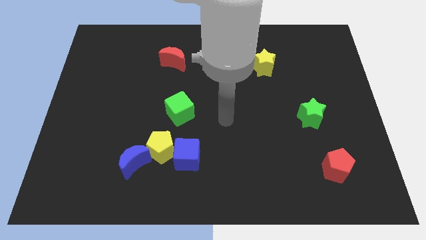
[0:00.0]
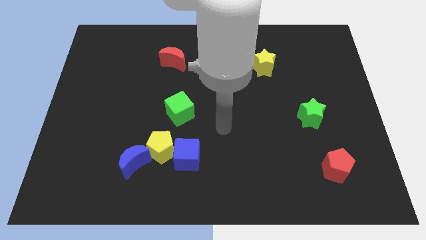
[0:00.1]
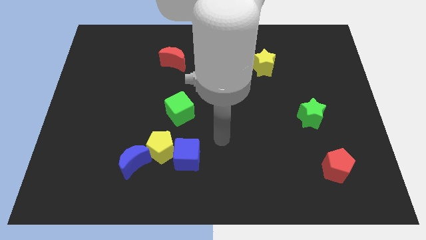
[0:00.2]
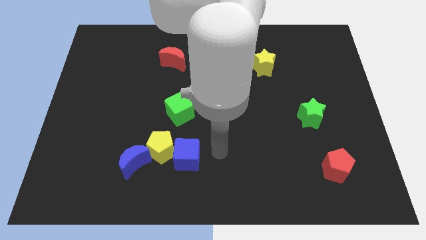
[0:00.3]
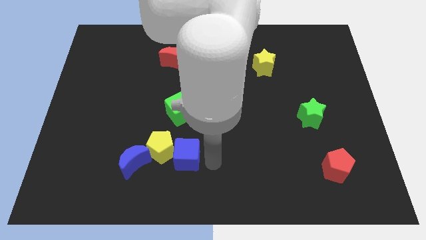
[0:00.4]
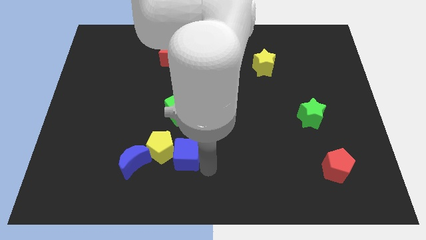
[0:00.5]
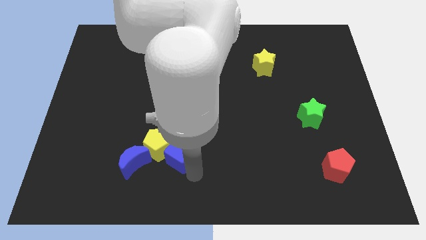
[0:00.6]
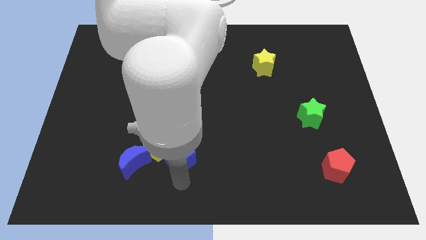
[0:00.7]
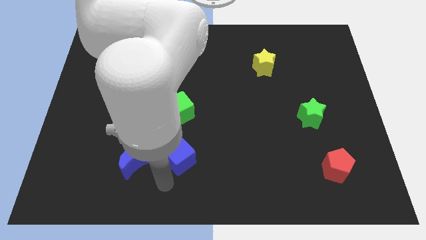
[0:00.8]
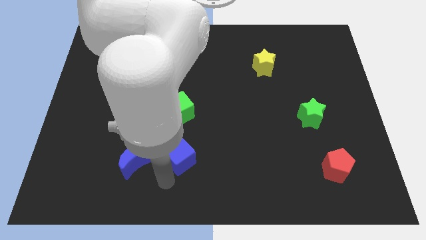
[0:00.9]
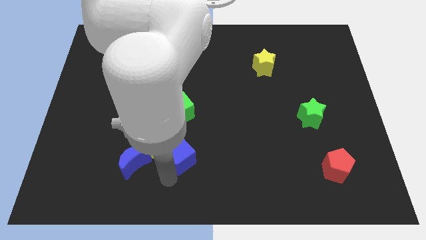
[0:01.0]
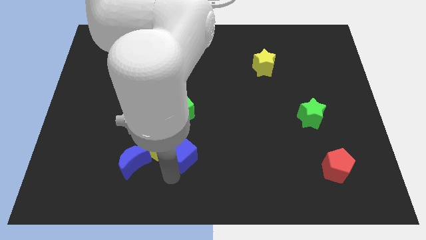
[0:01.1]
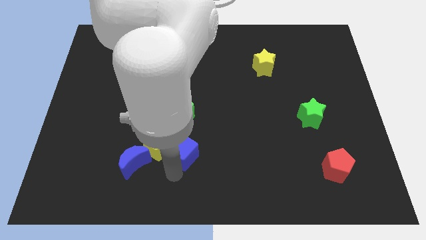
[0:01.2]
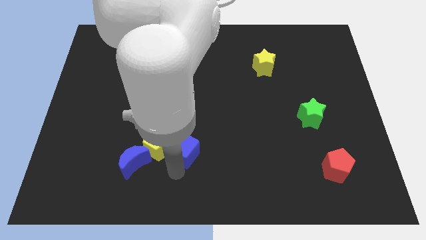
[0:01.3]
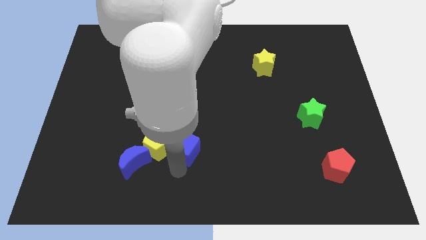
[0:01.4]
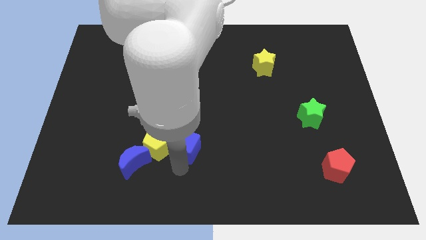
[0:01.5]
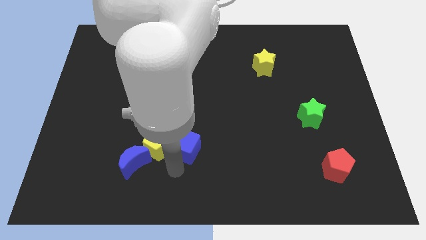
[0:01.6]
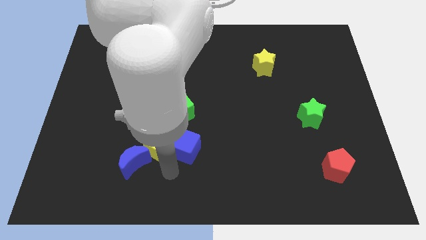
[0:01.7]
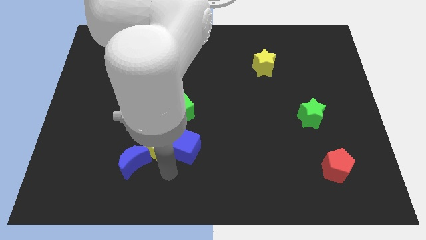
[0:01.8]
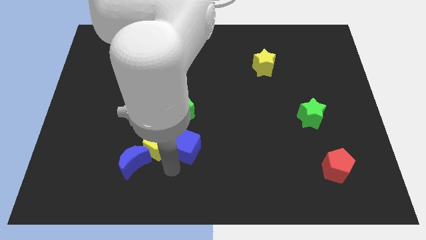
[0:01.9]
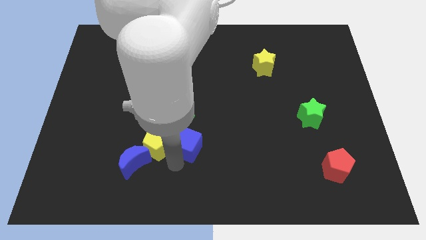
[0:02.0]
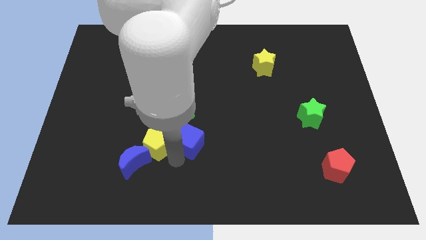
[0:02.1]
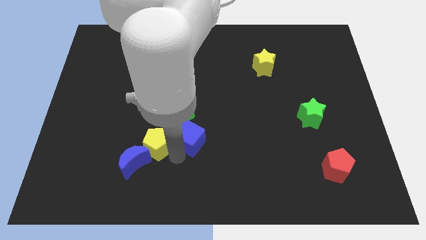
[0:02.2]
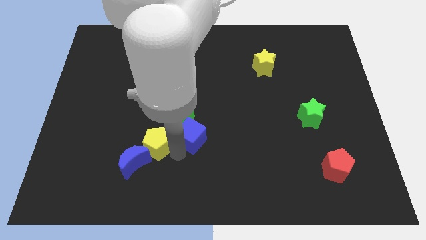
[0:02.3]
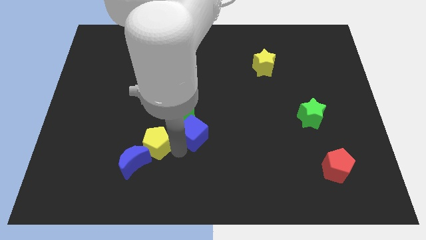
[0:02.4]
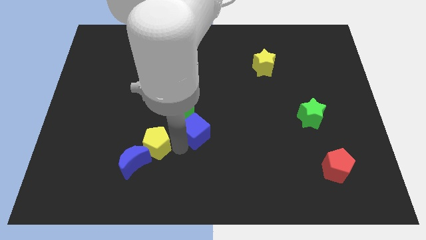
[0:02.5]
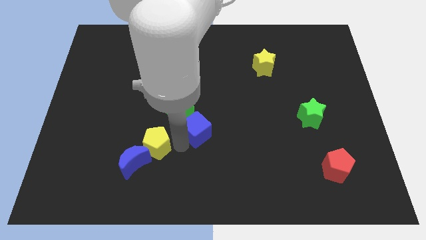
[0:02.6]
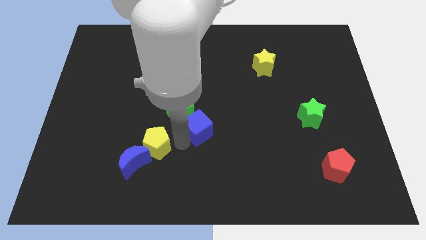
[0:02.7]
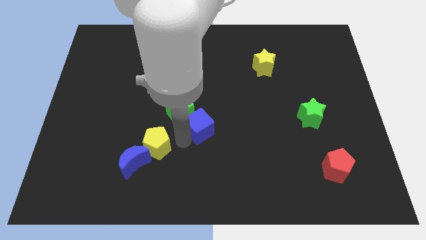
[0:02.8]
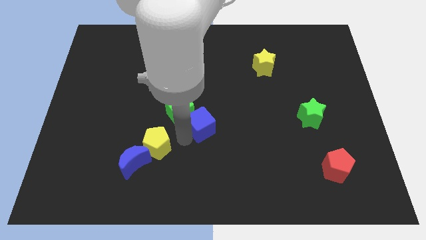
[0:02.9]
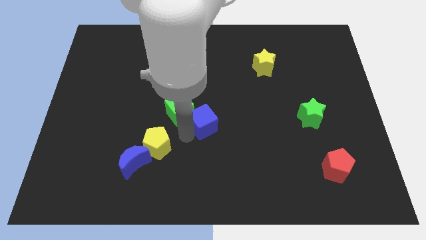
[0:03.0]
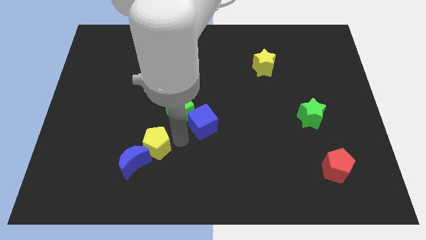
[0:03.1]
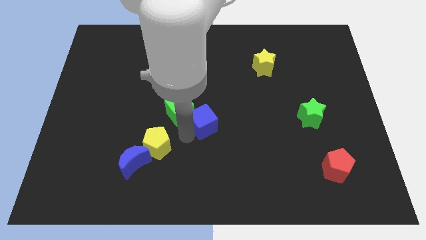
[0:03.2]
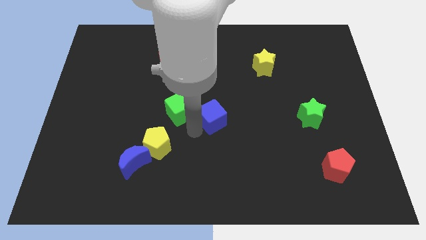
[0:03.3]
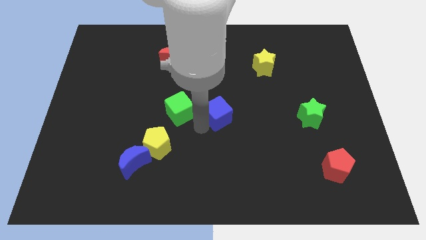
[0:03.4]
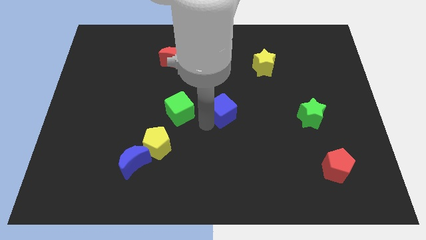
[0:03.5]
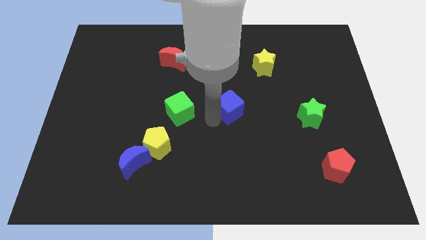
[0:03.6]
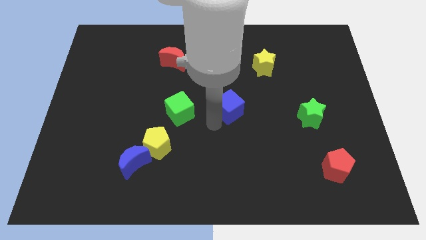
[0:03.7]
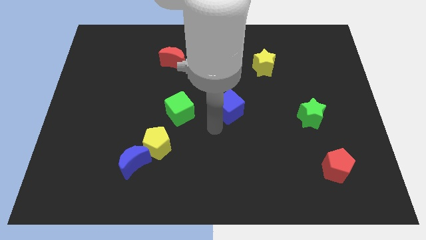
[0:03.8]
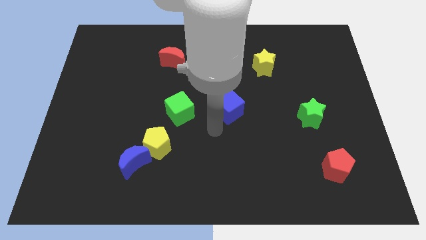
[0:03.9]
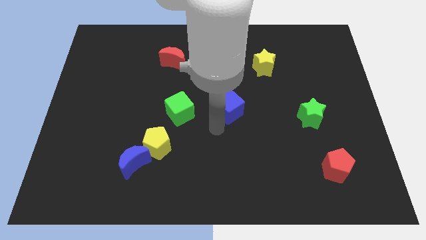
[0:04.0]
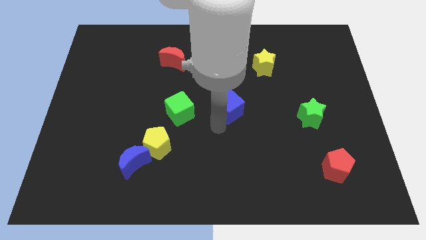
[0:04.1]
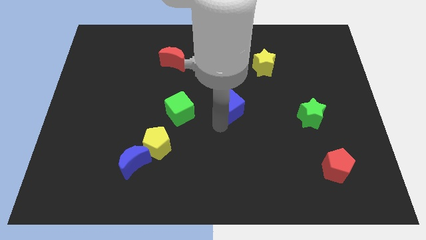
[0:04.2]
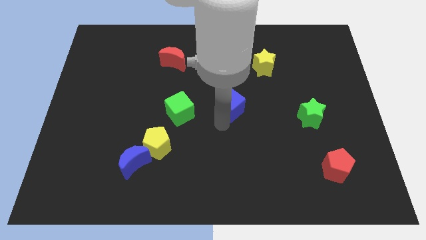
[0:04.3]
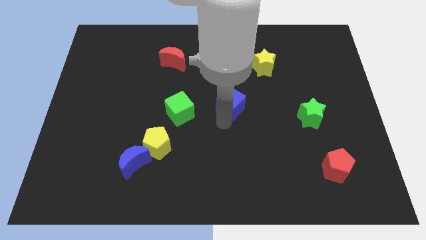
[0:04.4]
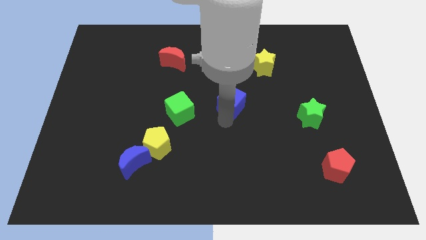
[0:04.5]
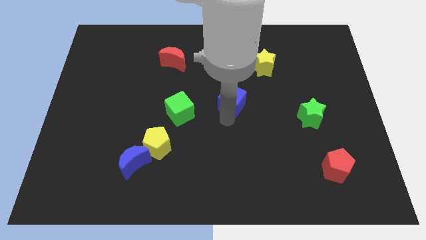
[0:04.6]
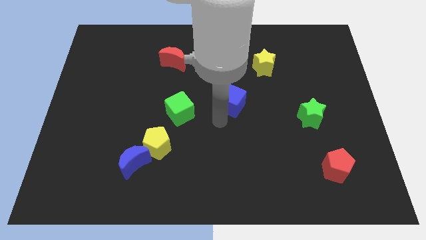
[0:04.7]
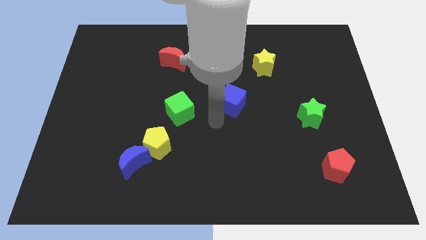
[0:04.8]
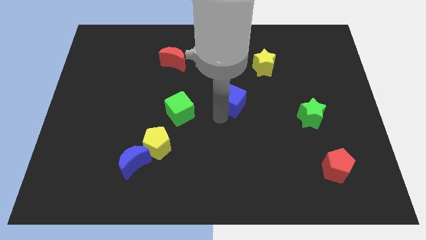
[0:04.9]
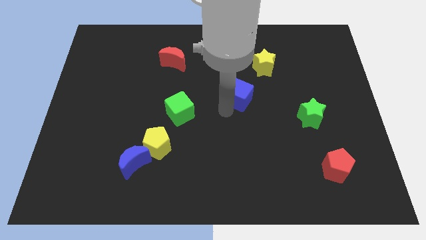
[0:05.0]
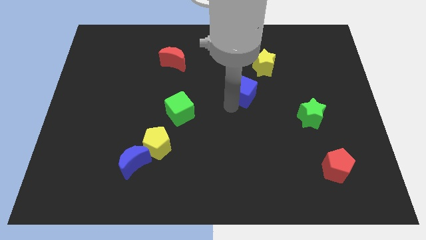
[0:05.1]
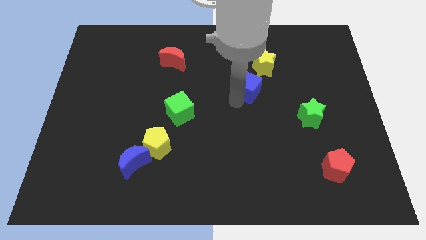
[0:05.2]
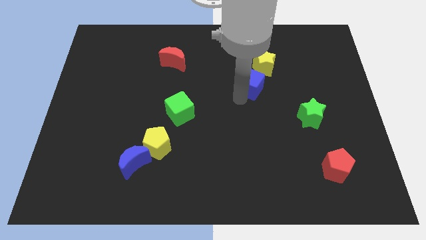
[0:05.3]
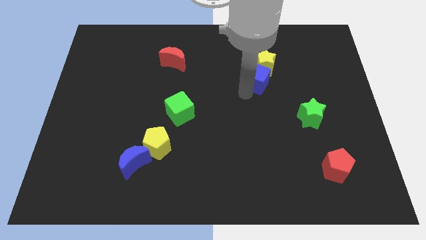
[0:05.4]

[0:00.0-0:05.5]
move the blue cube next to the yellow star

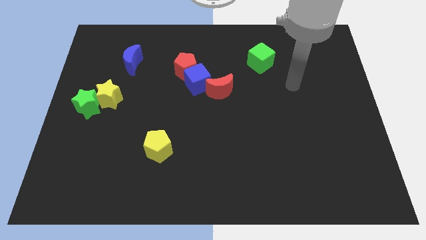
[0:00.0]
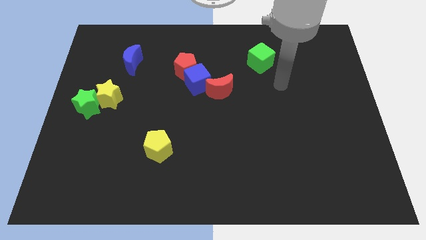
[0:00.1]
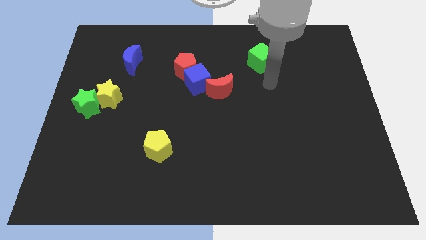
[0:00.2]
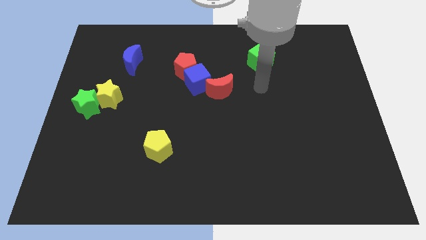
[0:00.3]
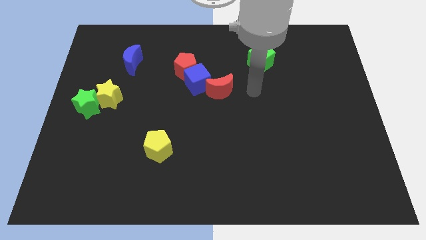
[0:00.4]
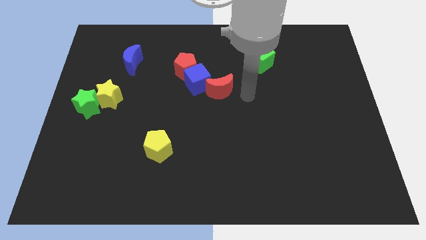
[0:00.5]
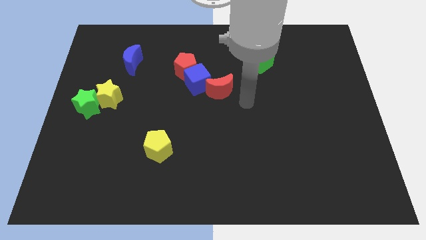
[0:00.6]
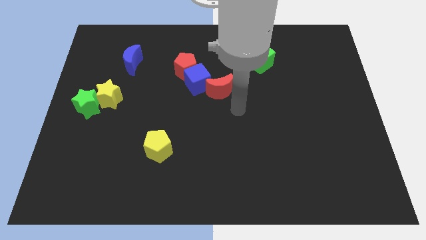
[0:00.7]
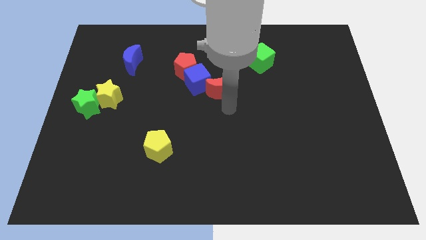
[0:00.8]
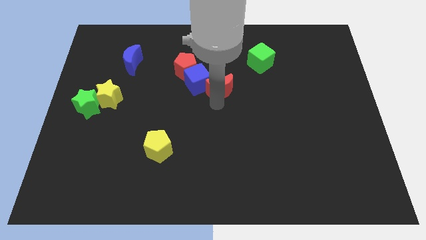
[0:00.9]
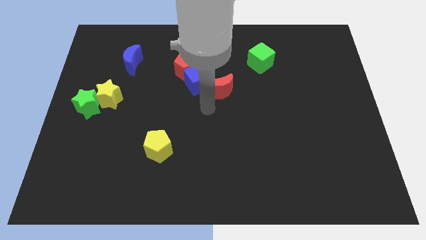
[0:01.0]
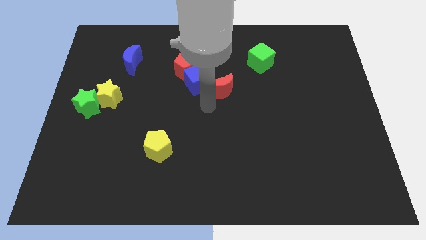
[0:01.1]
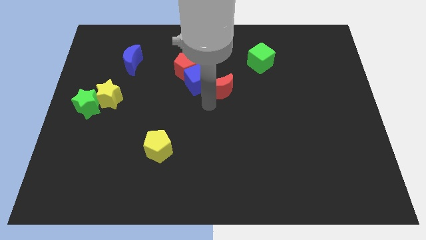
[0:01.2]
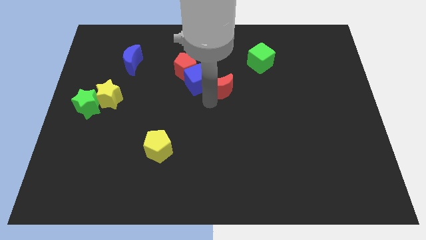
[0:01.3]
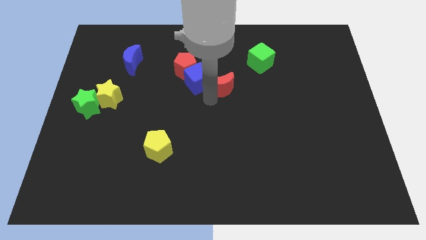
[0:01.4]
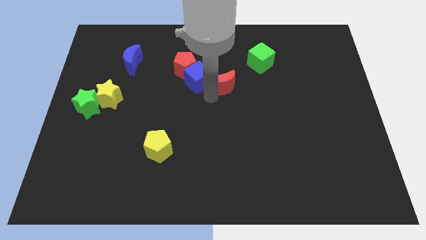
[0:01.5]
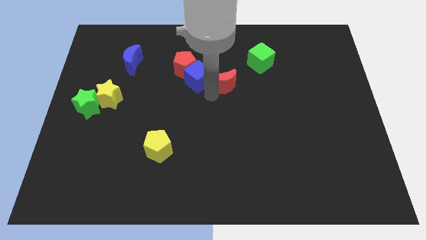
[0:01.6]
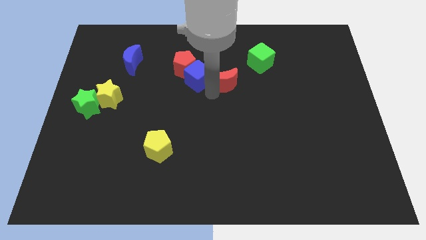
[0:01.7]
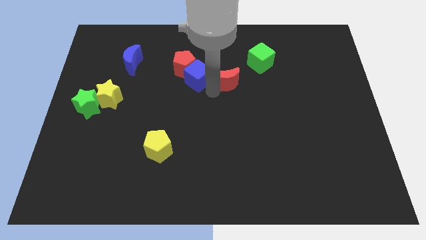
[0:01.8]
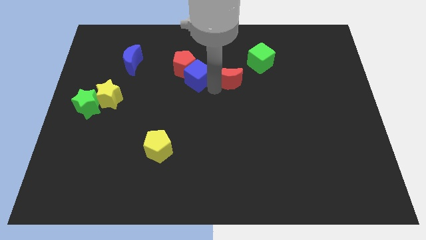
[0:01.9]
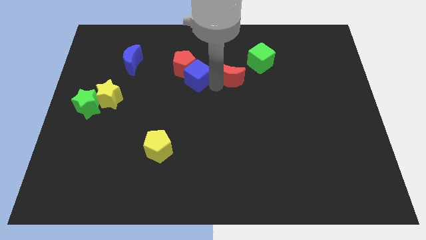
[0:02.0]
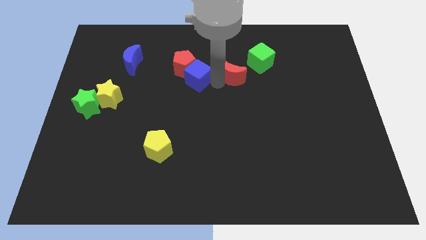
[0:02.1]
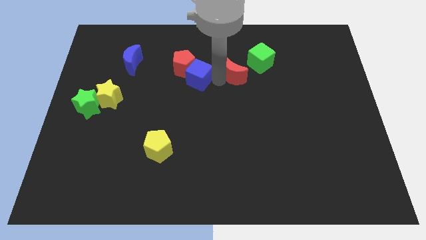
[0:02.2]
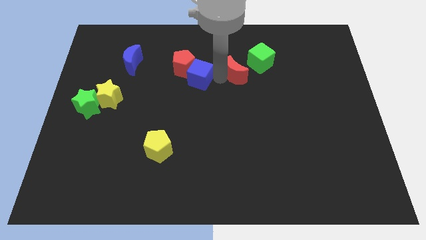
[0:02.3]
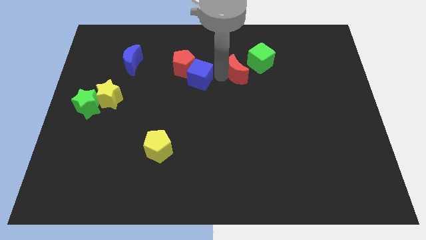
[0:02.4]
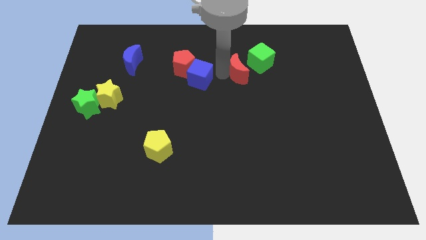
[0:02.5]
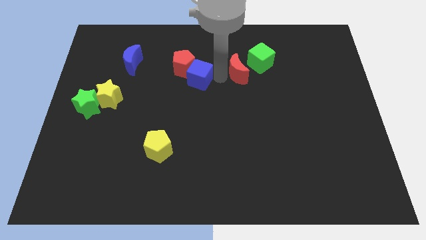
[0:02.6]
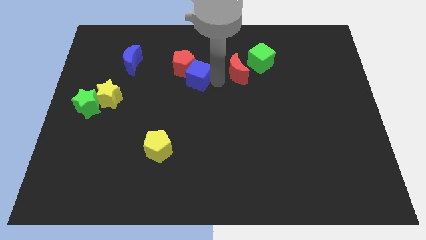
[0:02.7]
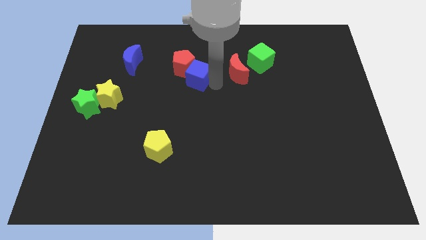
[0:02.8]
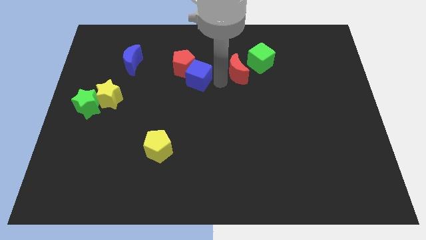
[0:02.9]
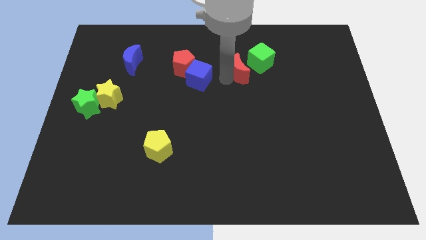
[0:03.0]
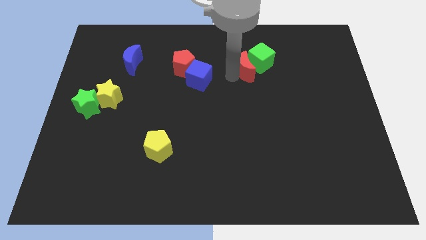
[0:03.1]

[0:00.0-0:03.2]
push the red moon next to the green cube
